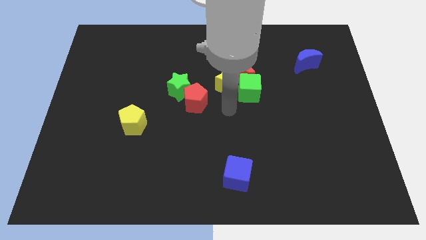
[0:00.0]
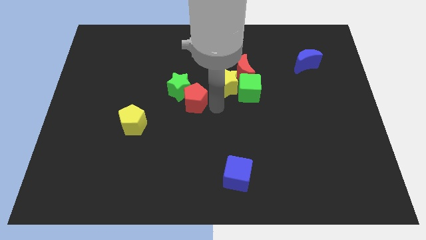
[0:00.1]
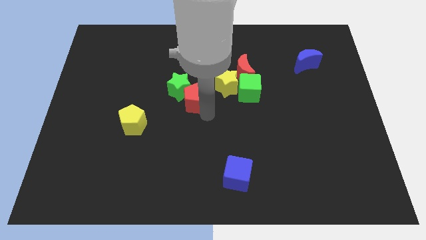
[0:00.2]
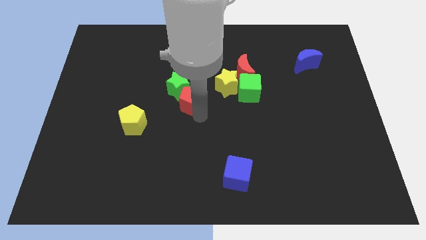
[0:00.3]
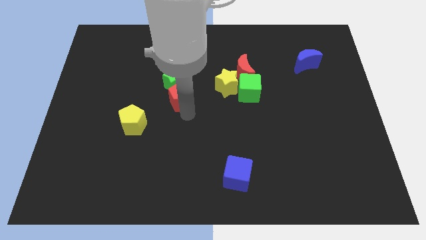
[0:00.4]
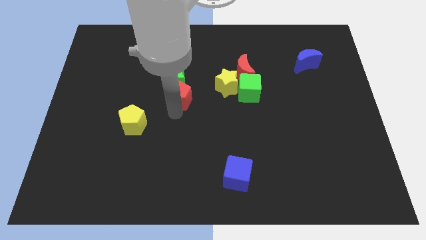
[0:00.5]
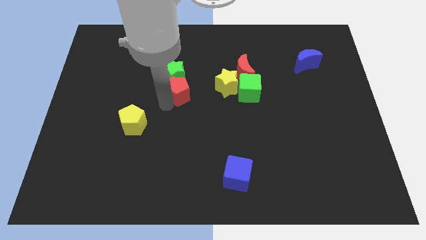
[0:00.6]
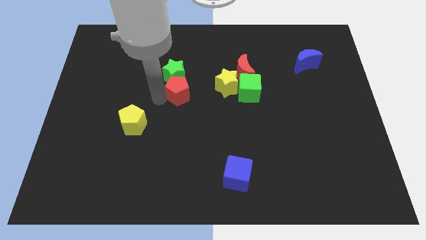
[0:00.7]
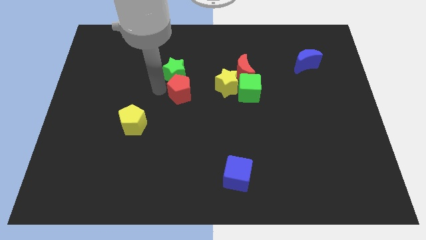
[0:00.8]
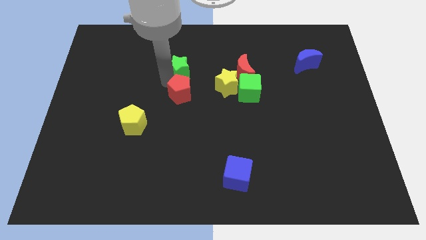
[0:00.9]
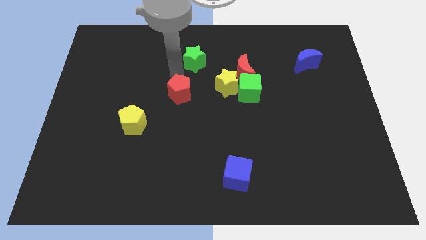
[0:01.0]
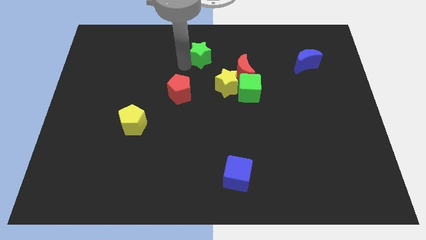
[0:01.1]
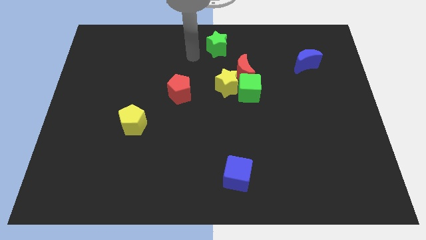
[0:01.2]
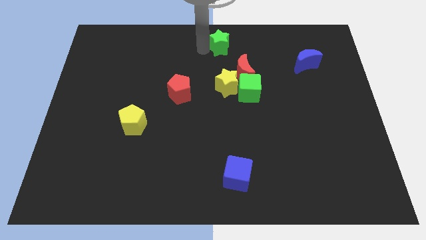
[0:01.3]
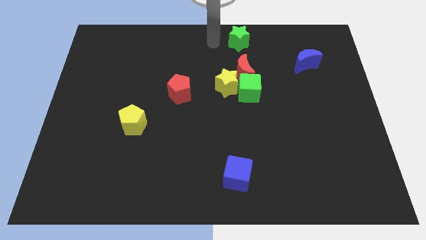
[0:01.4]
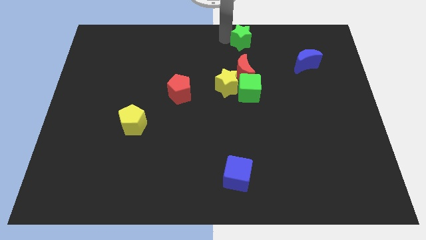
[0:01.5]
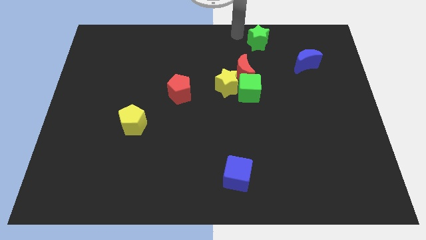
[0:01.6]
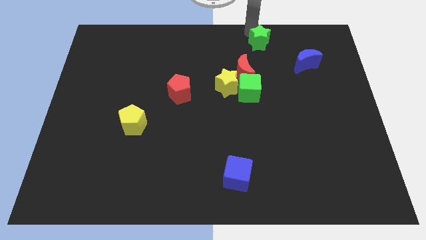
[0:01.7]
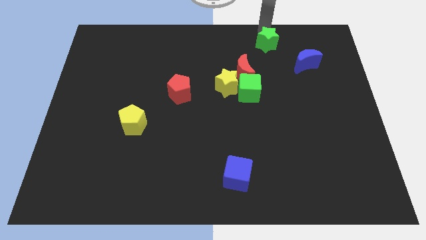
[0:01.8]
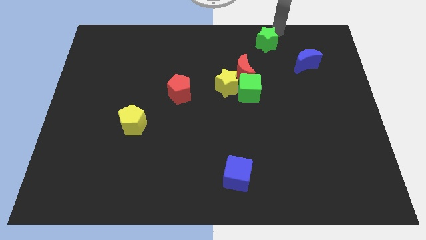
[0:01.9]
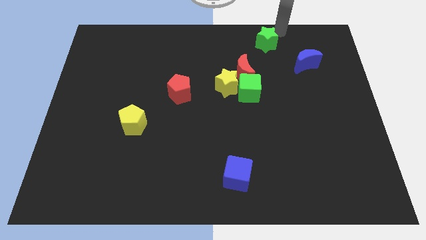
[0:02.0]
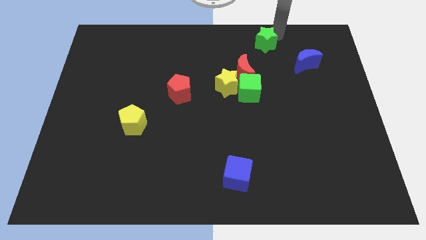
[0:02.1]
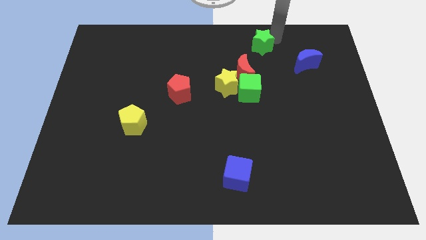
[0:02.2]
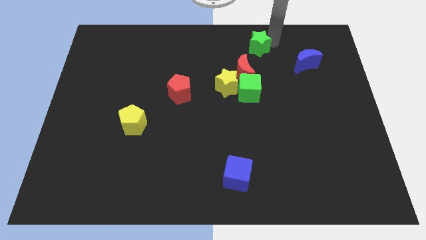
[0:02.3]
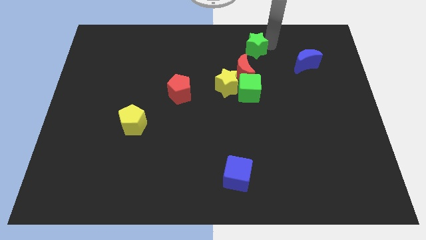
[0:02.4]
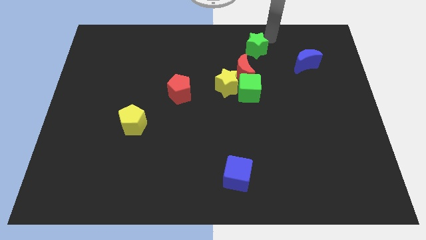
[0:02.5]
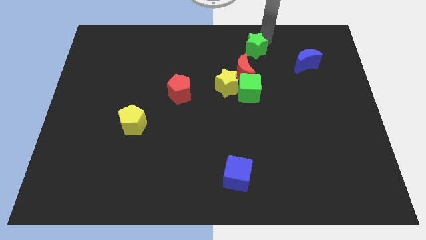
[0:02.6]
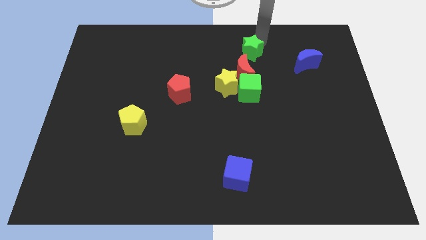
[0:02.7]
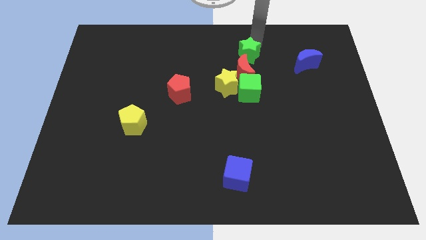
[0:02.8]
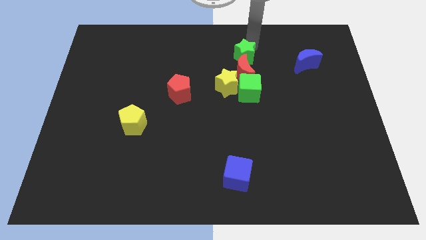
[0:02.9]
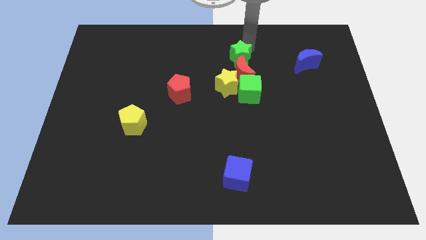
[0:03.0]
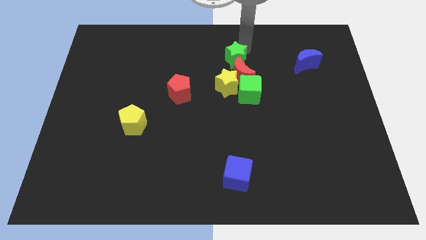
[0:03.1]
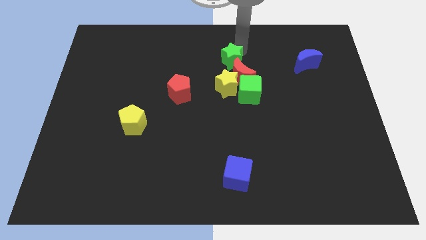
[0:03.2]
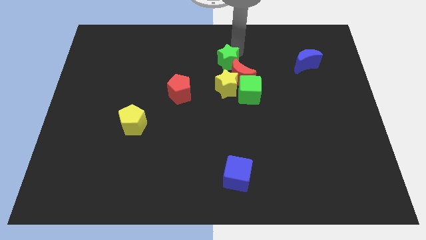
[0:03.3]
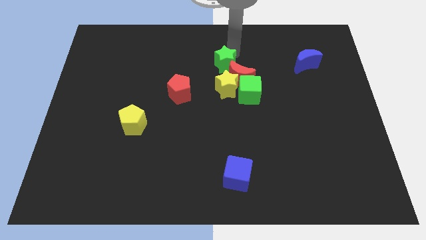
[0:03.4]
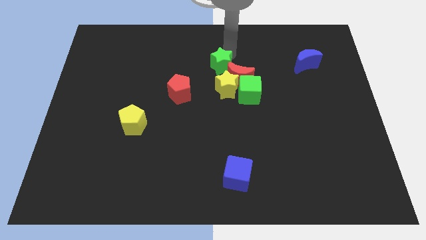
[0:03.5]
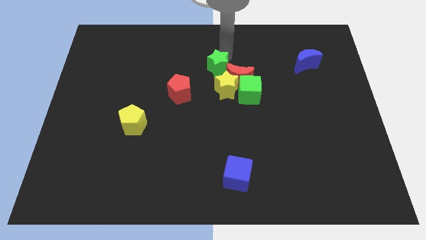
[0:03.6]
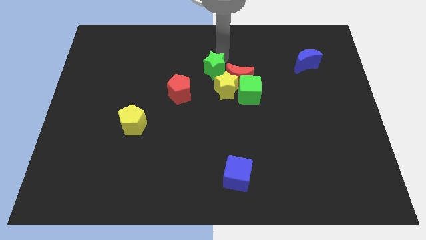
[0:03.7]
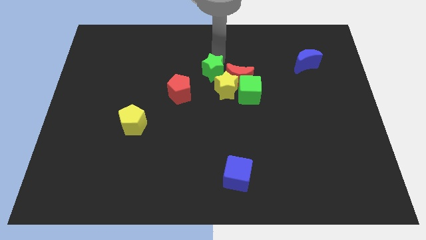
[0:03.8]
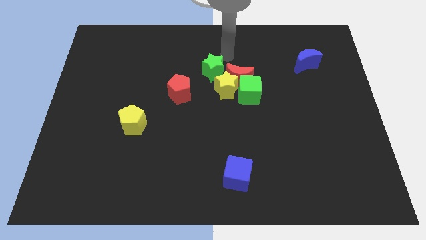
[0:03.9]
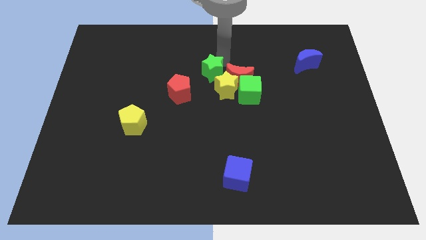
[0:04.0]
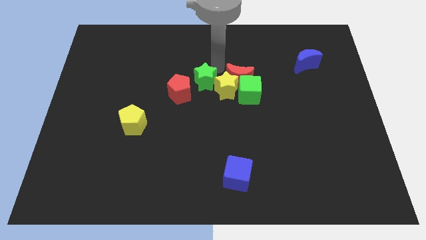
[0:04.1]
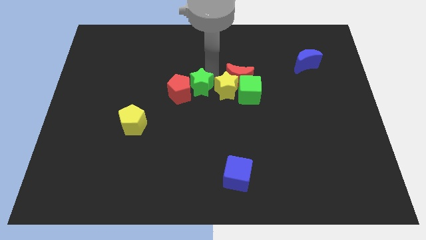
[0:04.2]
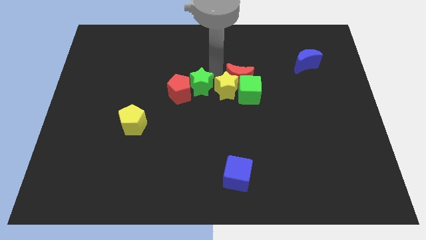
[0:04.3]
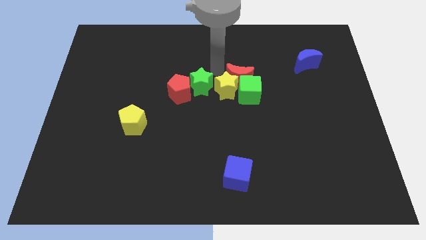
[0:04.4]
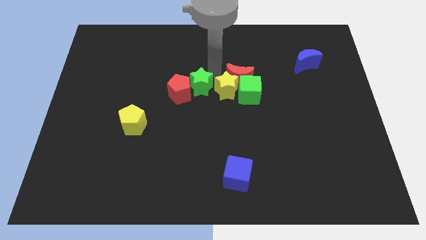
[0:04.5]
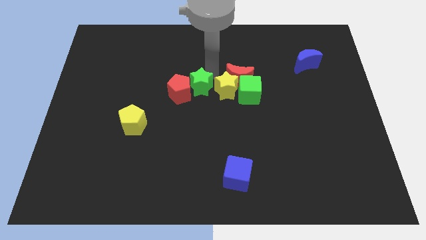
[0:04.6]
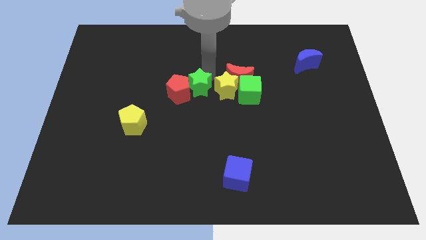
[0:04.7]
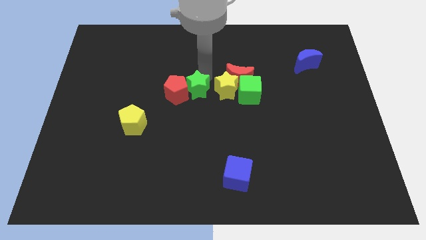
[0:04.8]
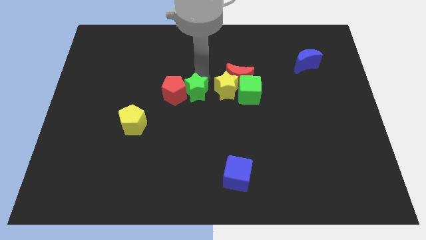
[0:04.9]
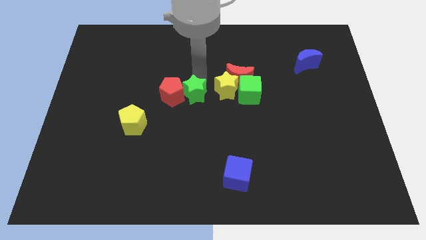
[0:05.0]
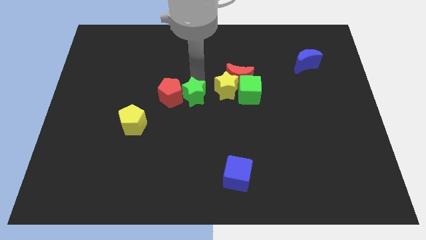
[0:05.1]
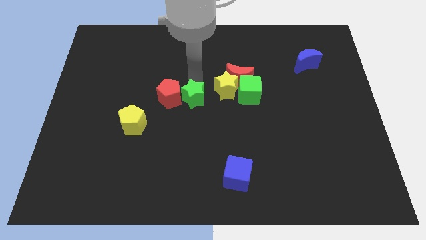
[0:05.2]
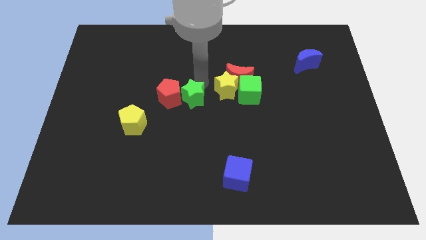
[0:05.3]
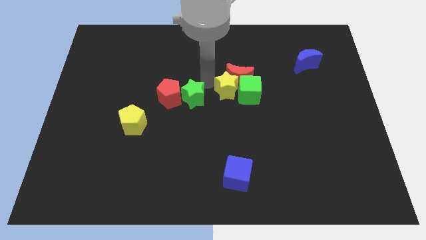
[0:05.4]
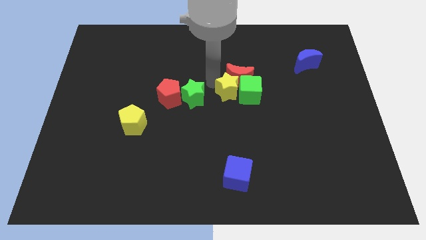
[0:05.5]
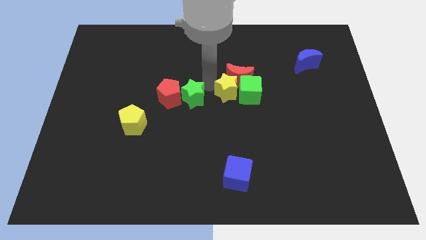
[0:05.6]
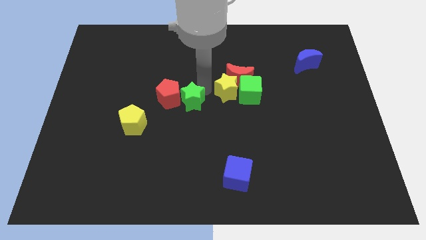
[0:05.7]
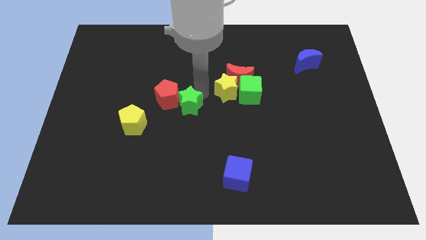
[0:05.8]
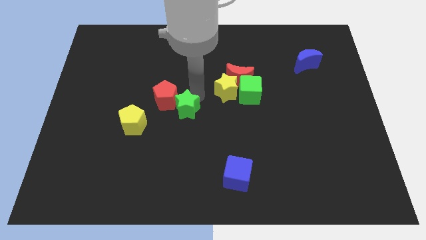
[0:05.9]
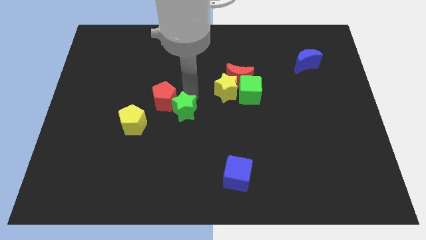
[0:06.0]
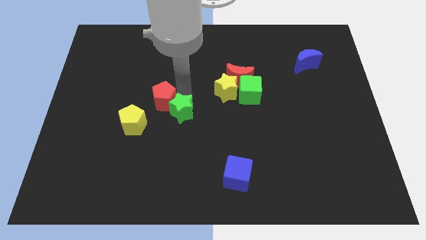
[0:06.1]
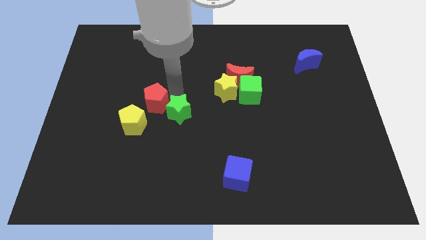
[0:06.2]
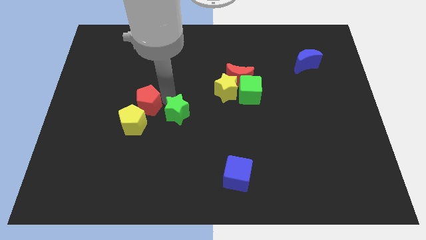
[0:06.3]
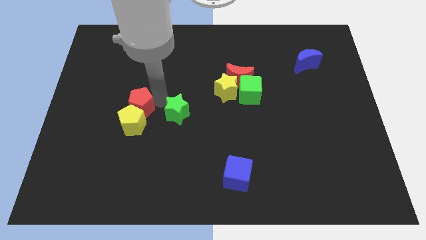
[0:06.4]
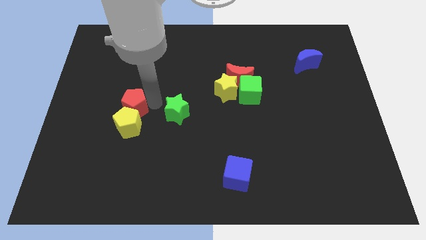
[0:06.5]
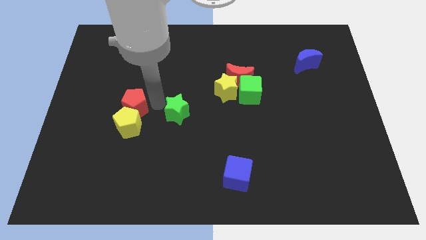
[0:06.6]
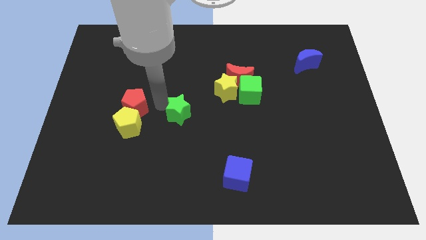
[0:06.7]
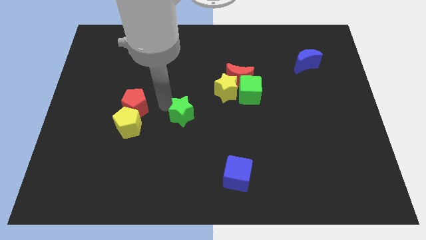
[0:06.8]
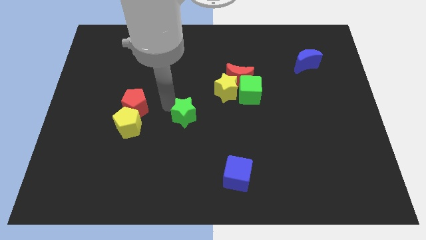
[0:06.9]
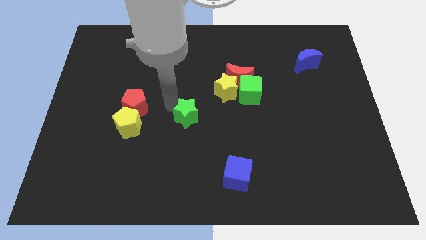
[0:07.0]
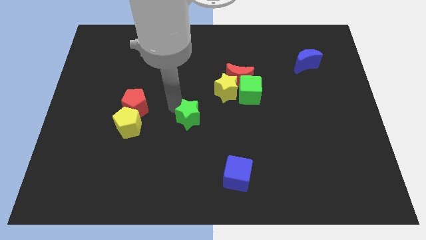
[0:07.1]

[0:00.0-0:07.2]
move the green star a bit diagonally downwards and right

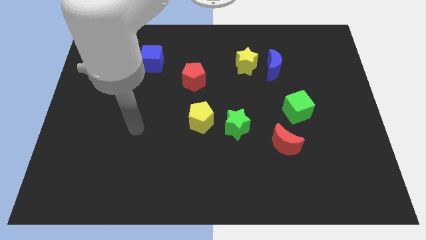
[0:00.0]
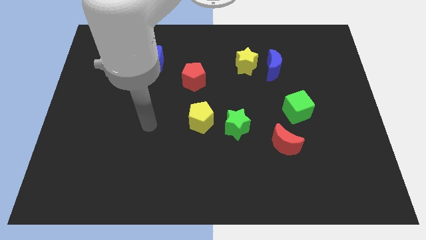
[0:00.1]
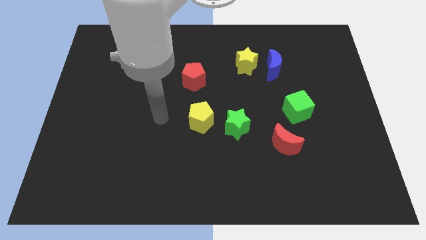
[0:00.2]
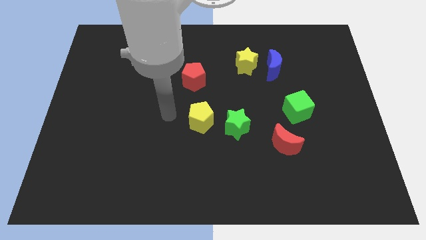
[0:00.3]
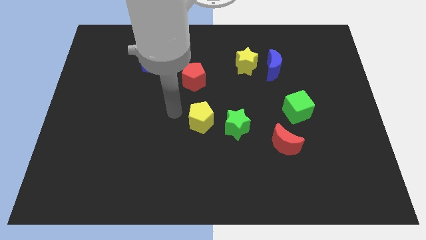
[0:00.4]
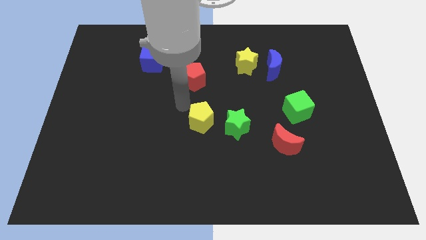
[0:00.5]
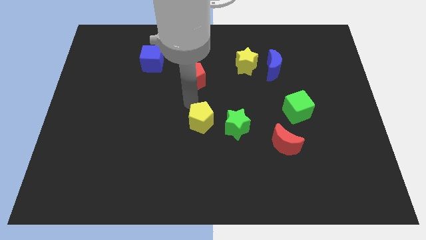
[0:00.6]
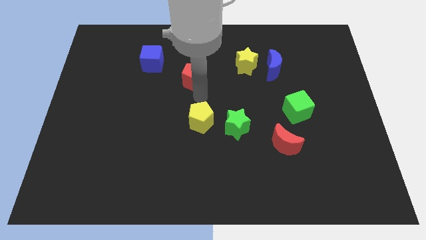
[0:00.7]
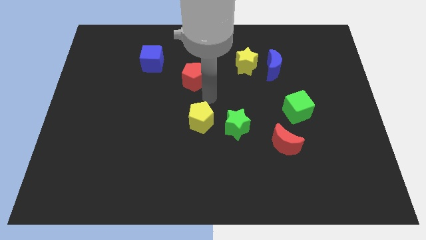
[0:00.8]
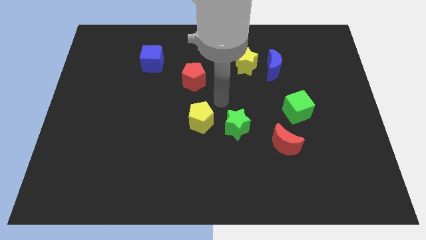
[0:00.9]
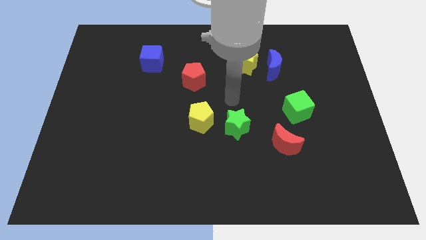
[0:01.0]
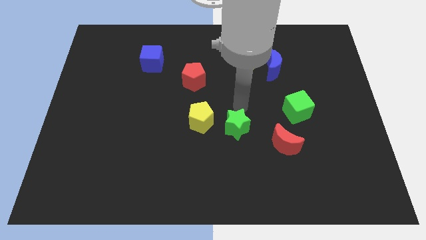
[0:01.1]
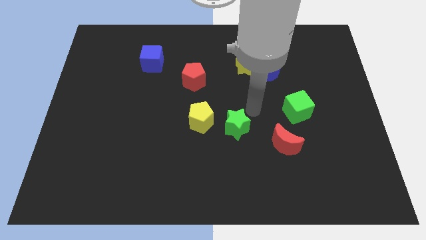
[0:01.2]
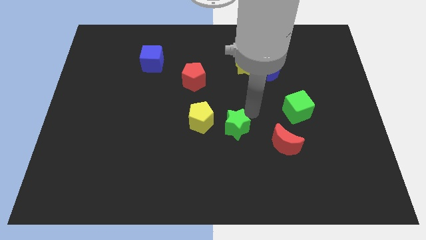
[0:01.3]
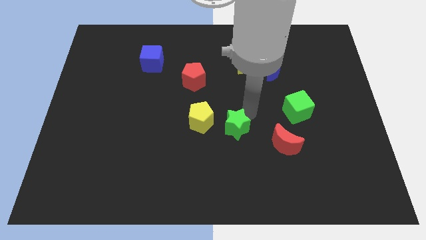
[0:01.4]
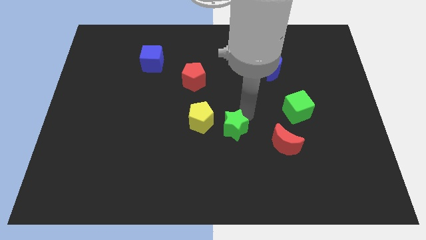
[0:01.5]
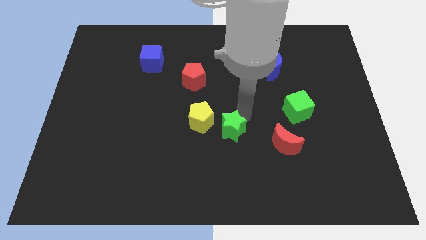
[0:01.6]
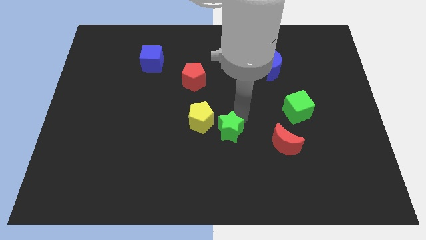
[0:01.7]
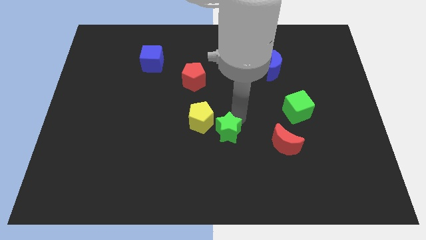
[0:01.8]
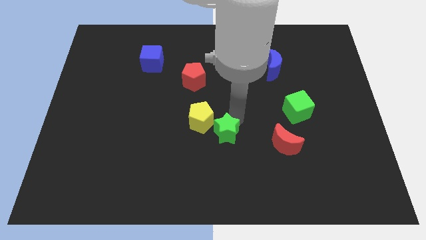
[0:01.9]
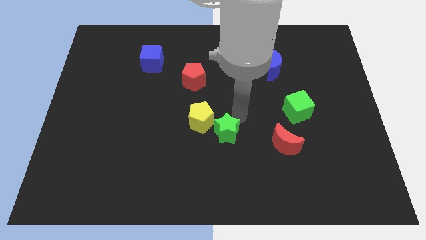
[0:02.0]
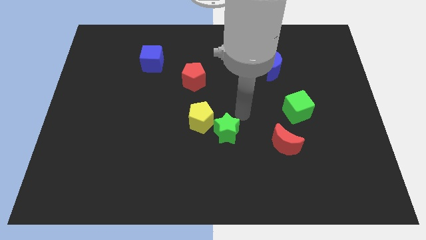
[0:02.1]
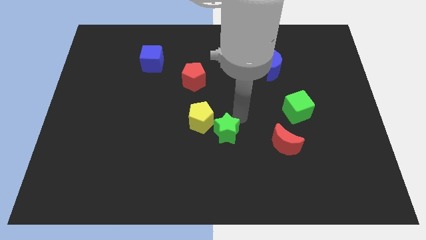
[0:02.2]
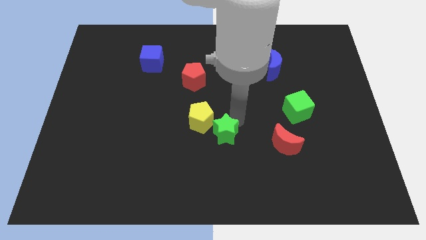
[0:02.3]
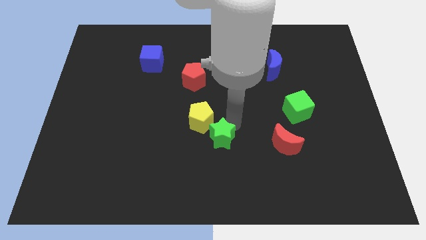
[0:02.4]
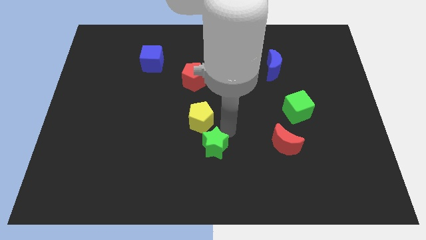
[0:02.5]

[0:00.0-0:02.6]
slide the green star downwards and then left a little
